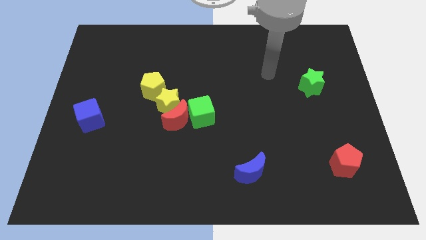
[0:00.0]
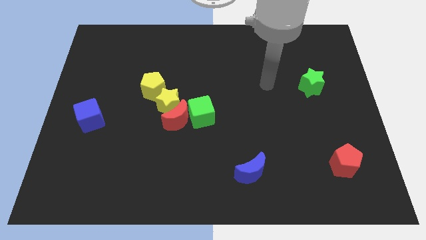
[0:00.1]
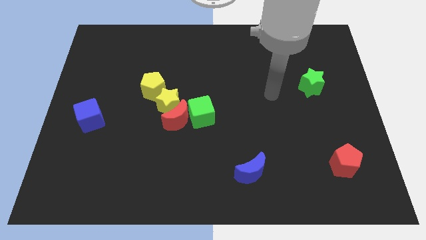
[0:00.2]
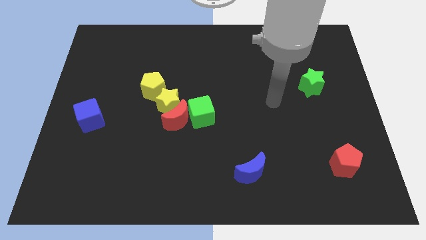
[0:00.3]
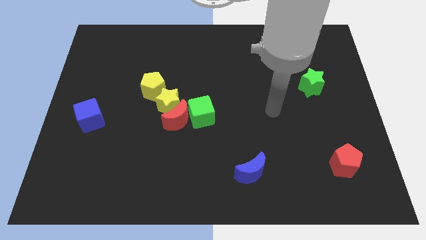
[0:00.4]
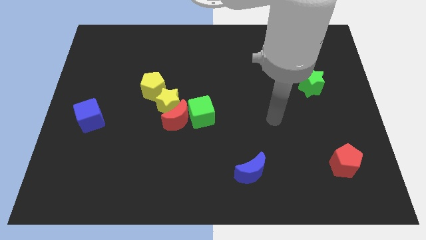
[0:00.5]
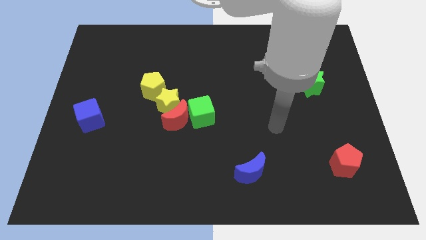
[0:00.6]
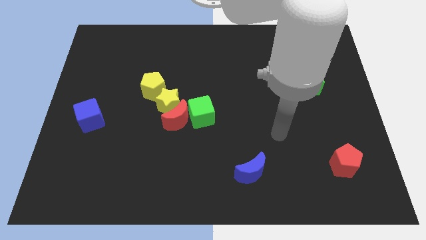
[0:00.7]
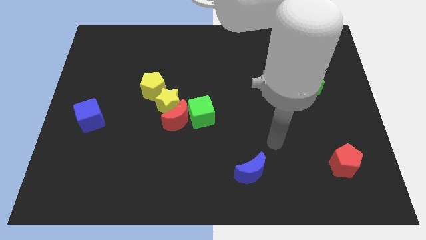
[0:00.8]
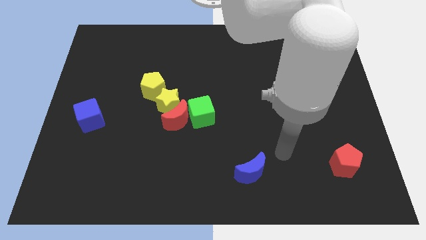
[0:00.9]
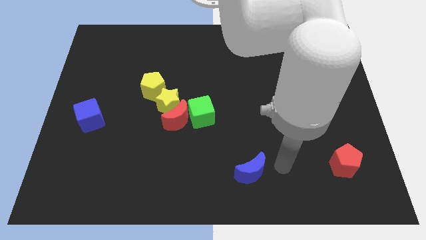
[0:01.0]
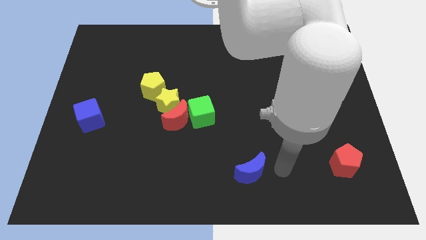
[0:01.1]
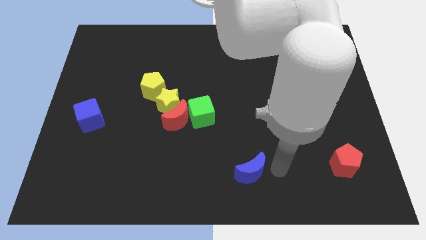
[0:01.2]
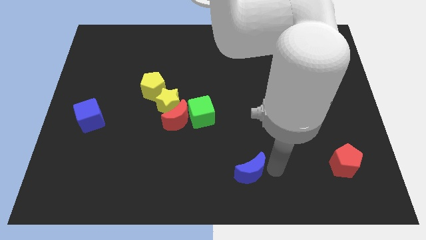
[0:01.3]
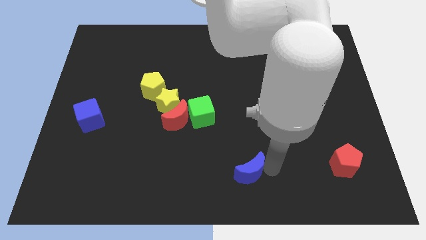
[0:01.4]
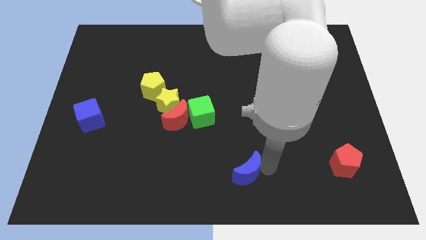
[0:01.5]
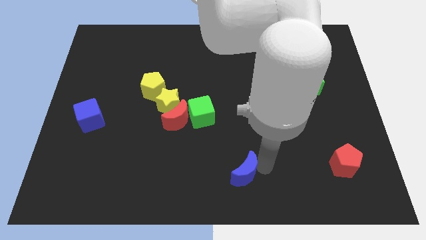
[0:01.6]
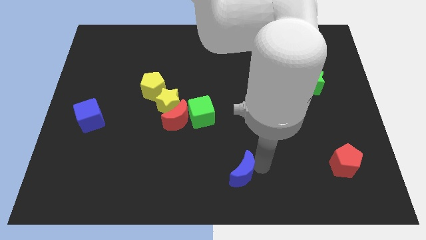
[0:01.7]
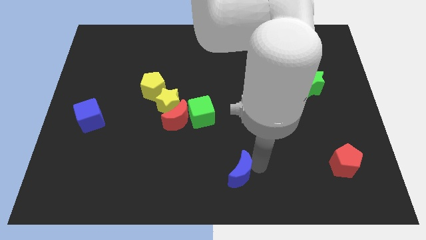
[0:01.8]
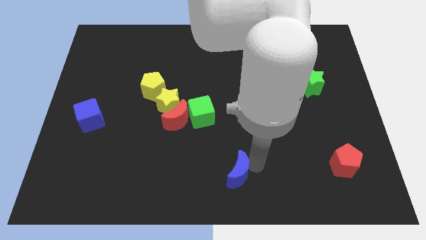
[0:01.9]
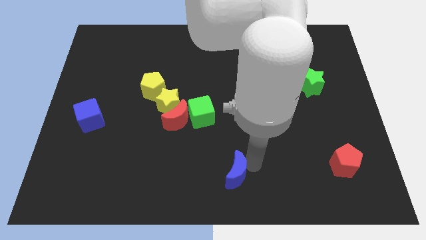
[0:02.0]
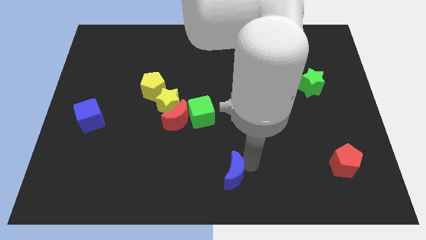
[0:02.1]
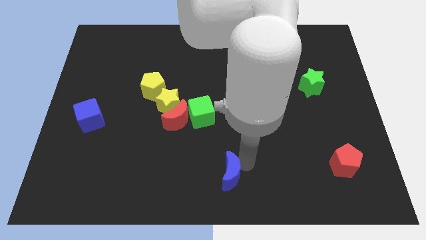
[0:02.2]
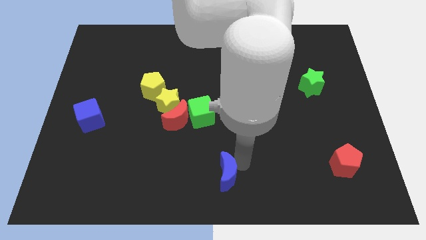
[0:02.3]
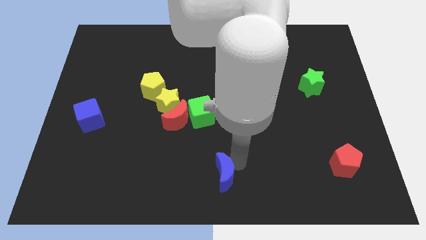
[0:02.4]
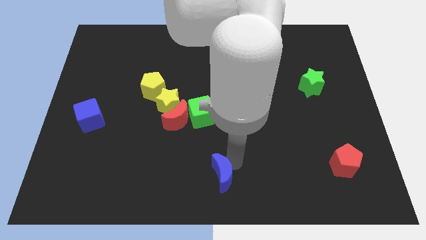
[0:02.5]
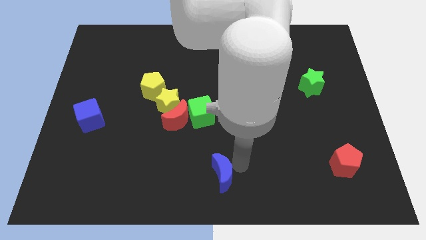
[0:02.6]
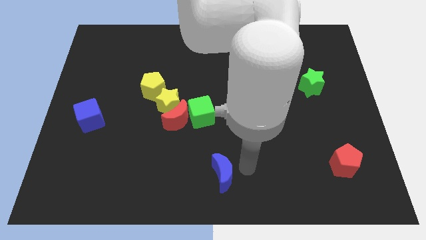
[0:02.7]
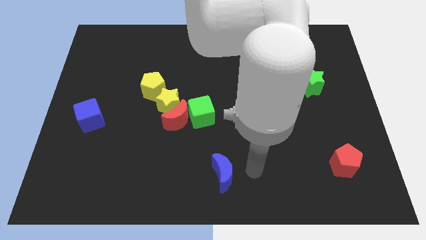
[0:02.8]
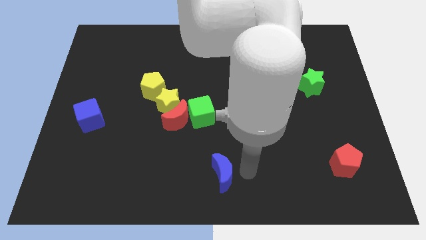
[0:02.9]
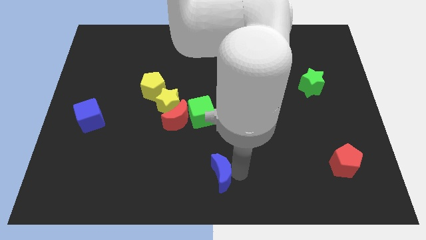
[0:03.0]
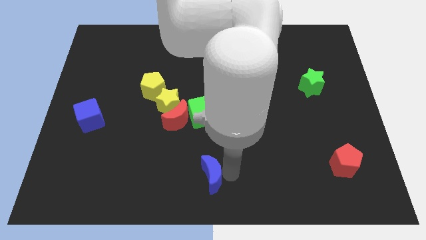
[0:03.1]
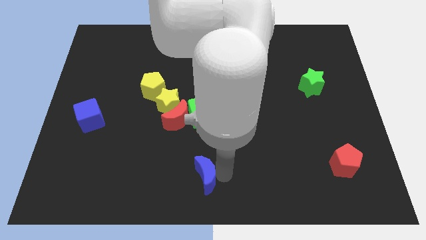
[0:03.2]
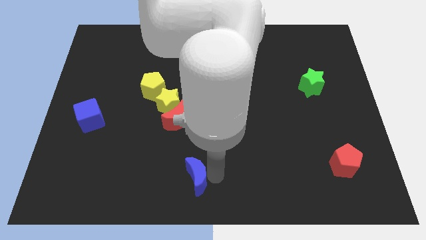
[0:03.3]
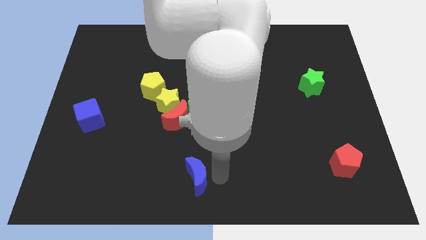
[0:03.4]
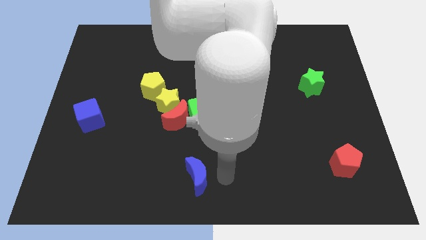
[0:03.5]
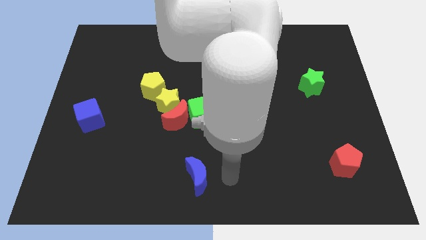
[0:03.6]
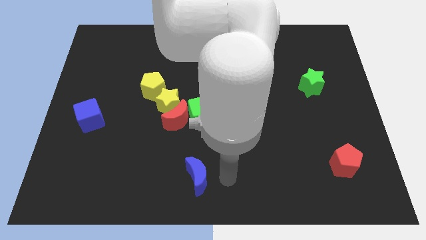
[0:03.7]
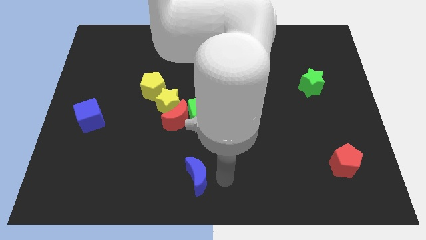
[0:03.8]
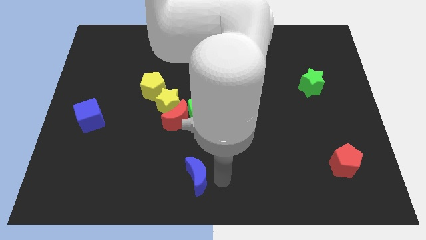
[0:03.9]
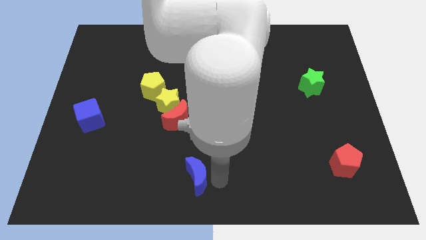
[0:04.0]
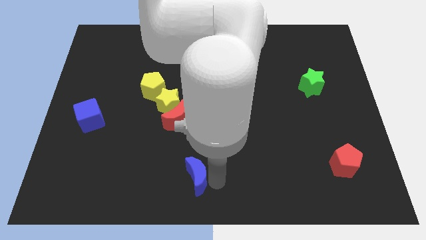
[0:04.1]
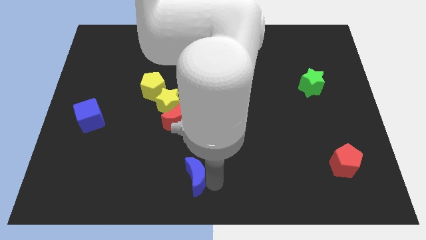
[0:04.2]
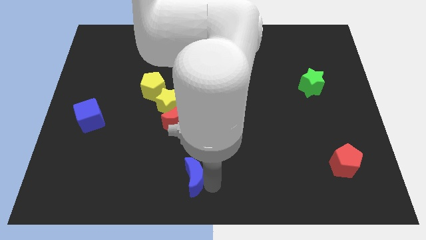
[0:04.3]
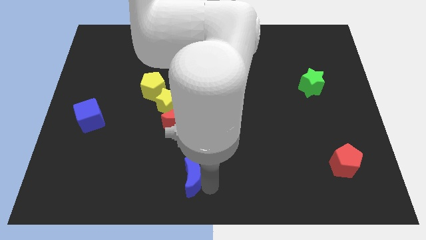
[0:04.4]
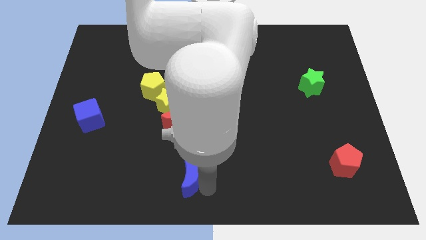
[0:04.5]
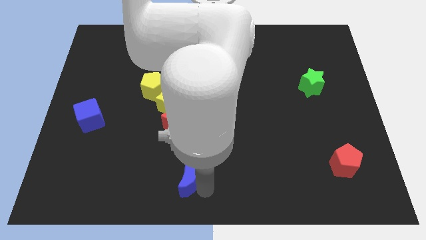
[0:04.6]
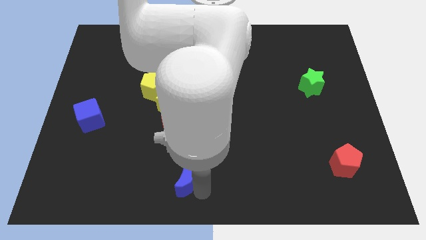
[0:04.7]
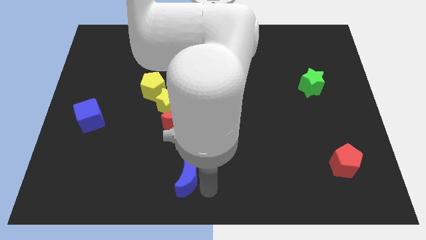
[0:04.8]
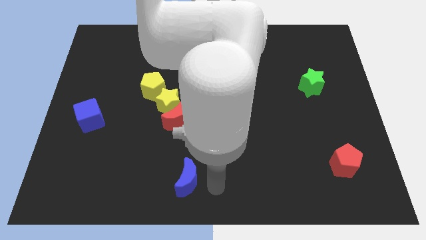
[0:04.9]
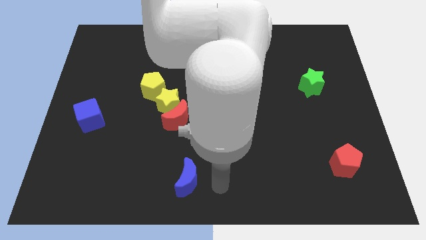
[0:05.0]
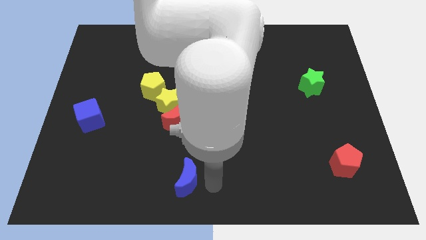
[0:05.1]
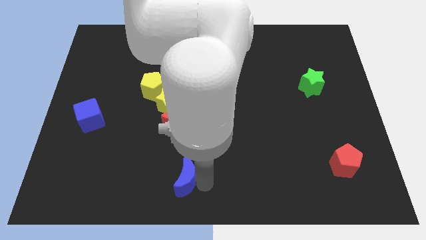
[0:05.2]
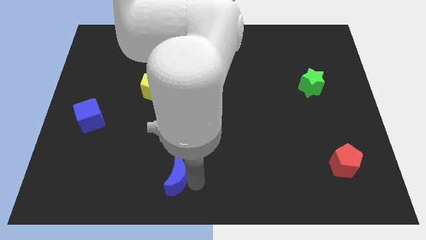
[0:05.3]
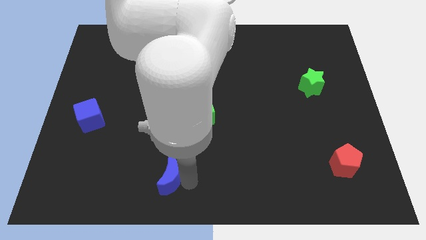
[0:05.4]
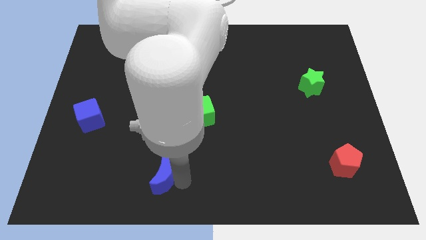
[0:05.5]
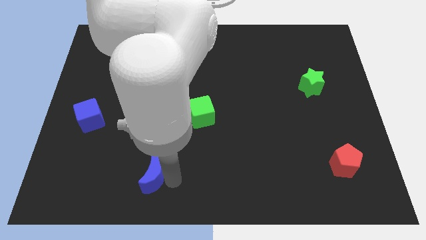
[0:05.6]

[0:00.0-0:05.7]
slide the blue moon left

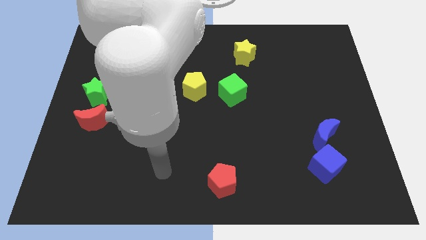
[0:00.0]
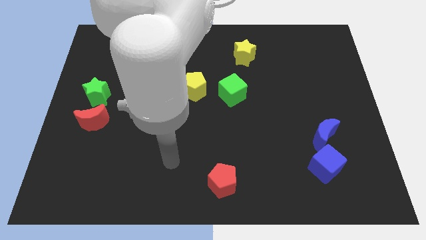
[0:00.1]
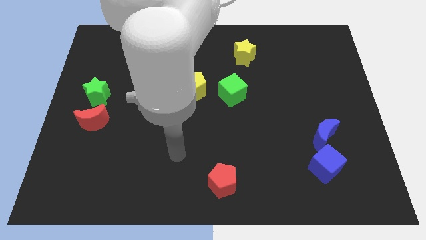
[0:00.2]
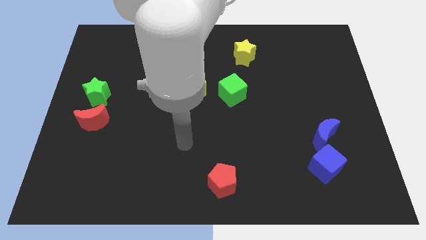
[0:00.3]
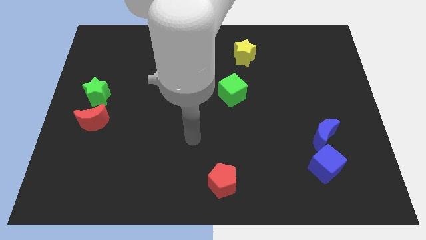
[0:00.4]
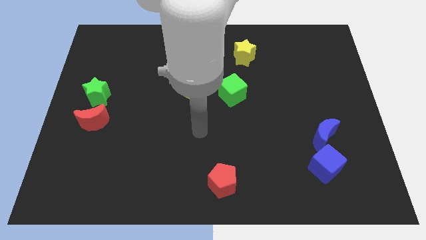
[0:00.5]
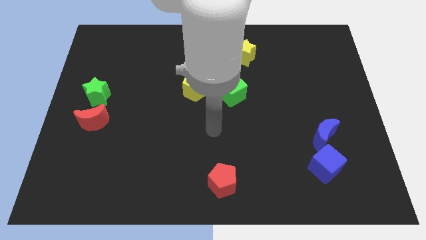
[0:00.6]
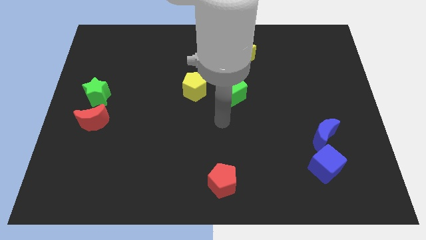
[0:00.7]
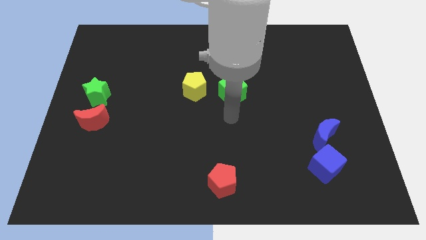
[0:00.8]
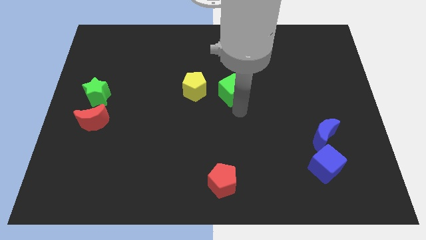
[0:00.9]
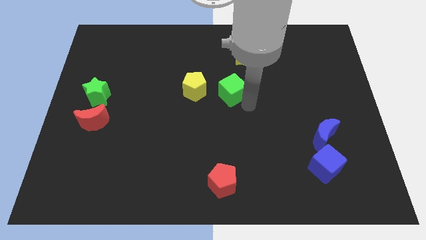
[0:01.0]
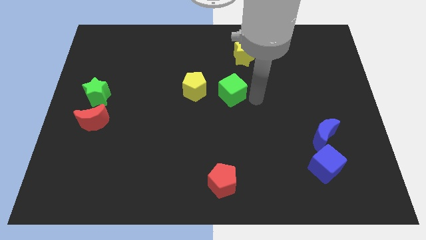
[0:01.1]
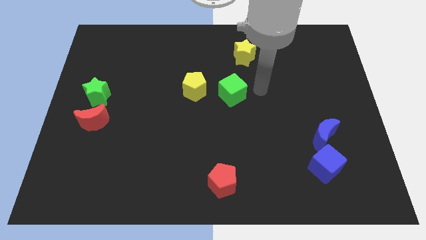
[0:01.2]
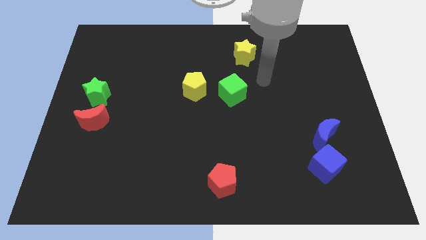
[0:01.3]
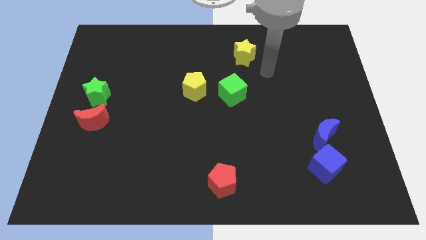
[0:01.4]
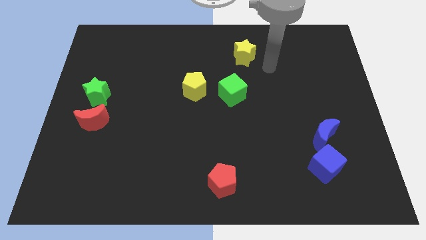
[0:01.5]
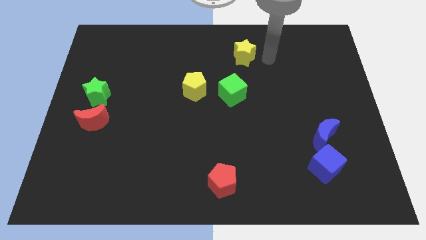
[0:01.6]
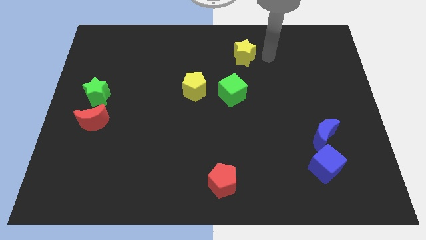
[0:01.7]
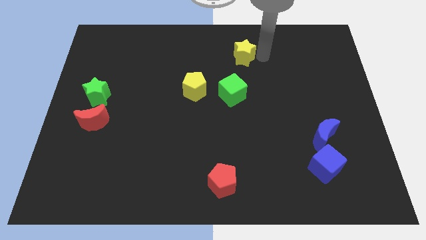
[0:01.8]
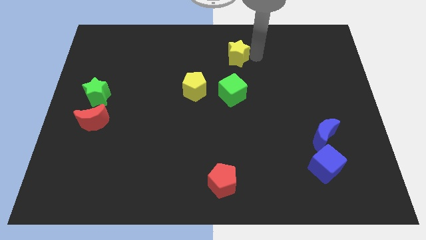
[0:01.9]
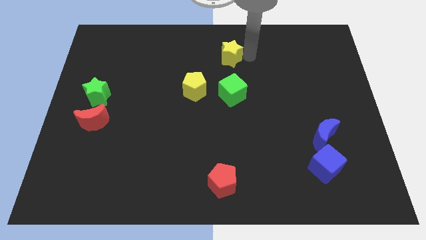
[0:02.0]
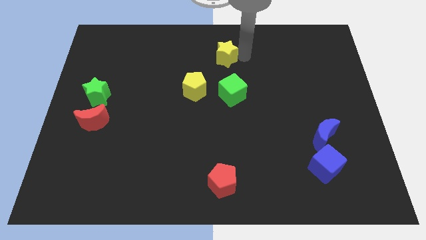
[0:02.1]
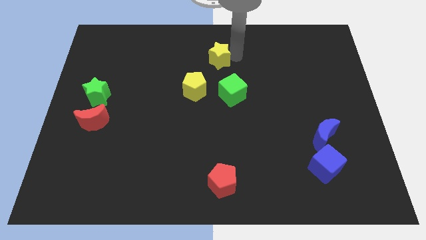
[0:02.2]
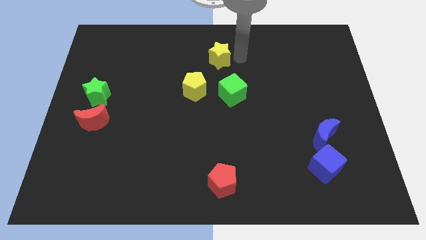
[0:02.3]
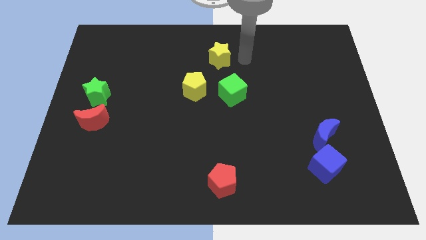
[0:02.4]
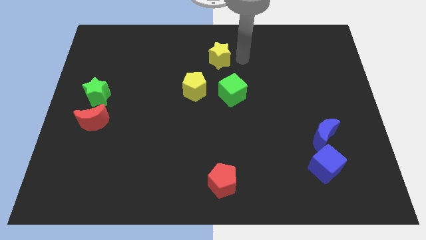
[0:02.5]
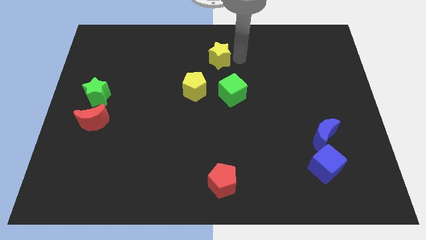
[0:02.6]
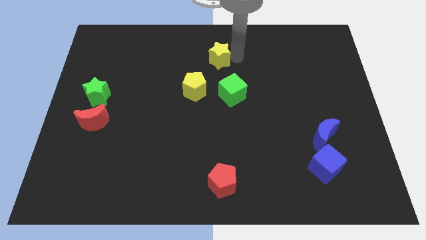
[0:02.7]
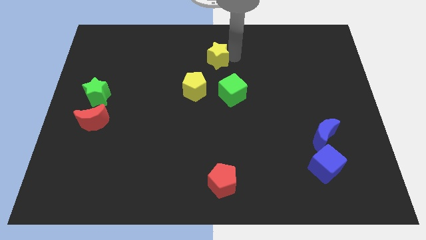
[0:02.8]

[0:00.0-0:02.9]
slide the yellow star a bit to the left
